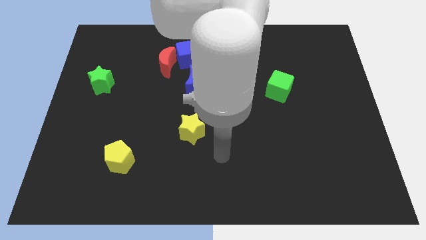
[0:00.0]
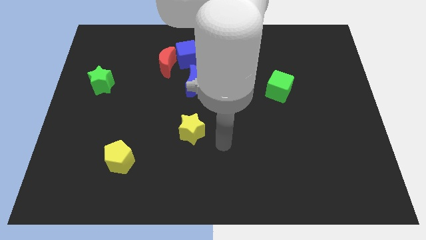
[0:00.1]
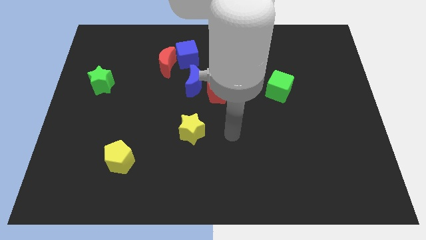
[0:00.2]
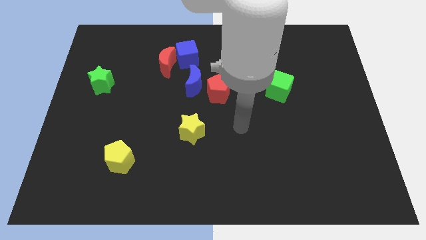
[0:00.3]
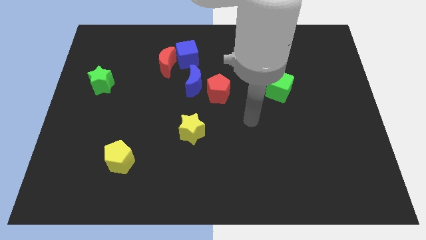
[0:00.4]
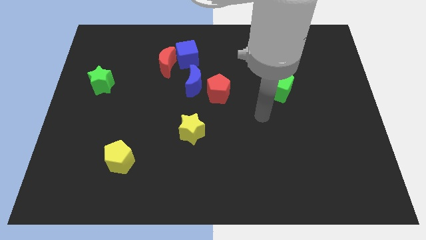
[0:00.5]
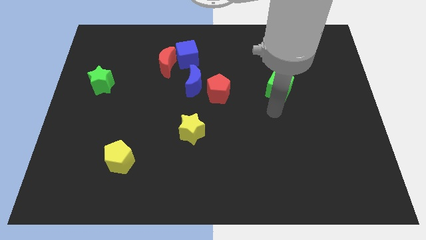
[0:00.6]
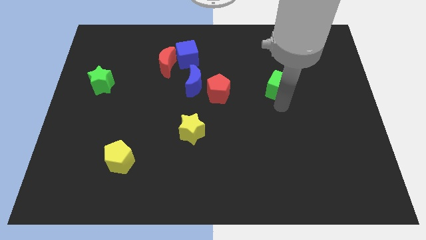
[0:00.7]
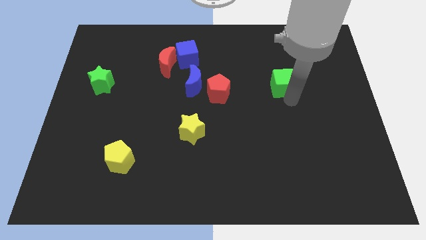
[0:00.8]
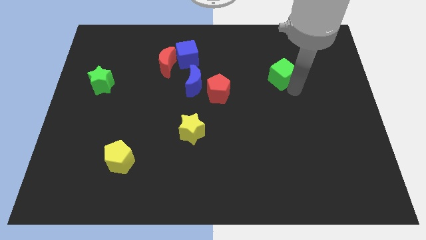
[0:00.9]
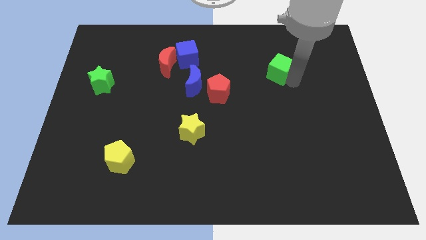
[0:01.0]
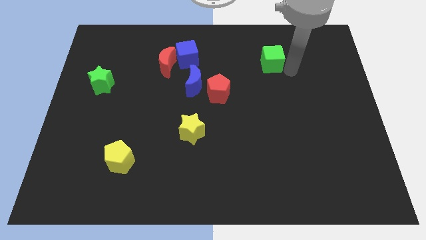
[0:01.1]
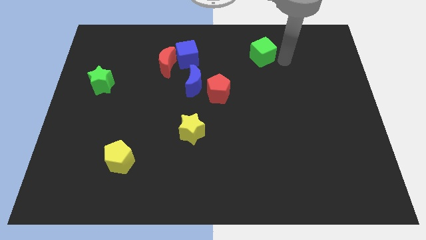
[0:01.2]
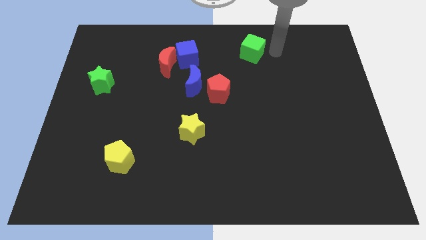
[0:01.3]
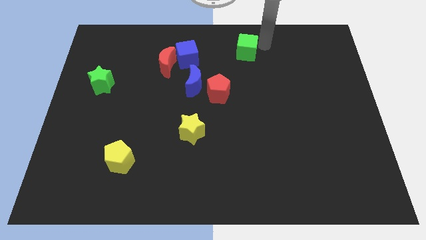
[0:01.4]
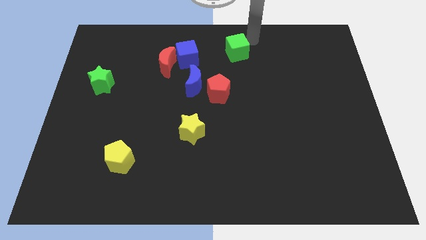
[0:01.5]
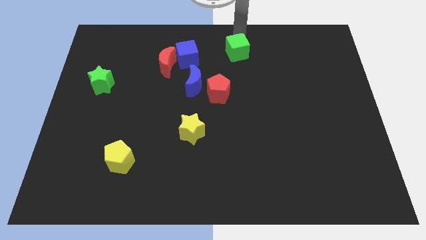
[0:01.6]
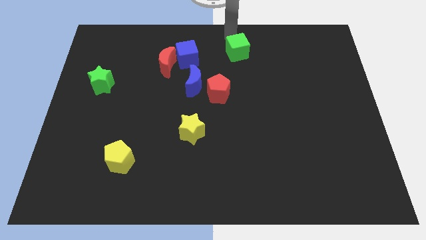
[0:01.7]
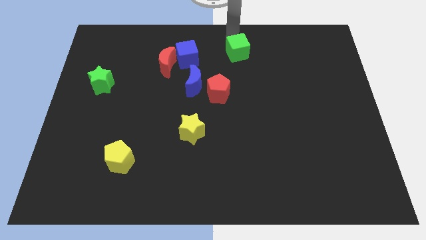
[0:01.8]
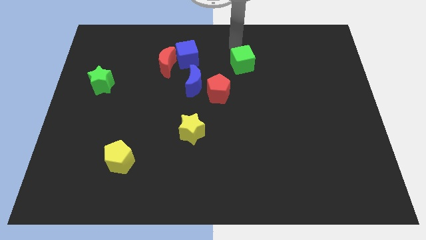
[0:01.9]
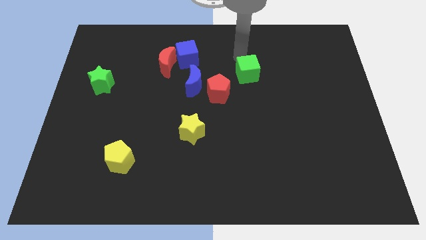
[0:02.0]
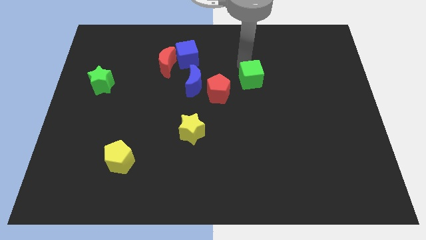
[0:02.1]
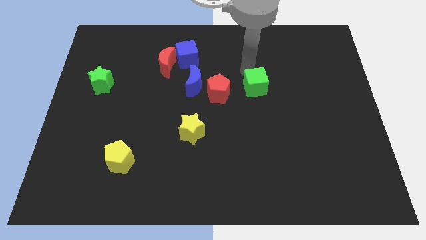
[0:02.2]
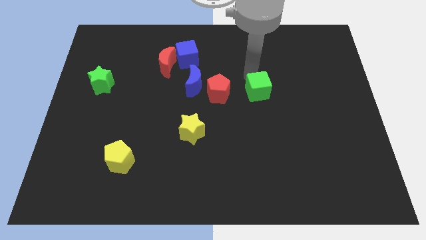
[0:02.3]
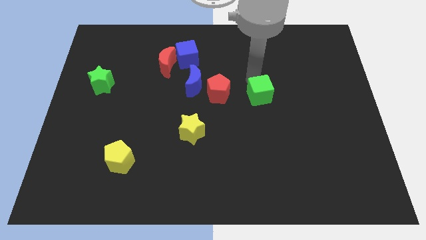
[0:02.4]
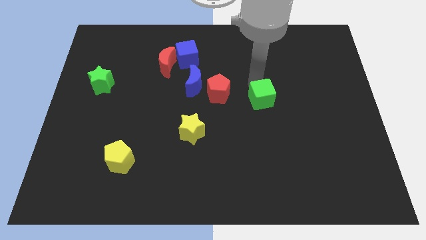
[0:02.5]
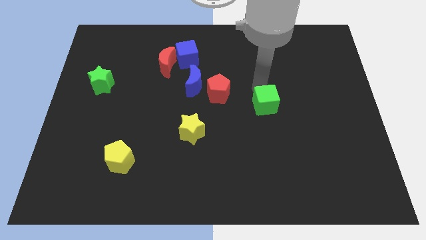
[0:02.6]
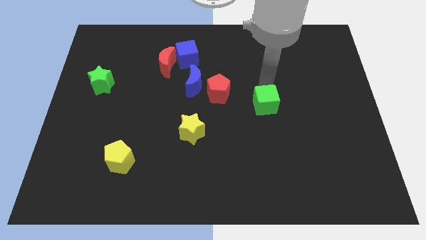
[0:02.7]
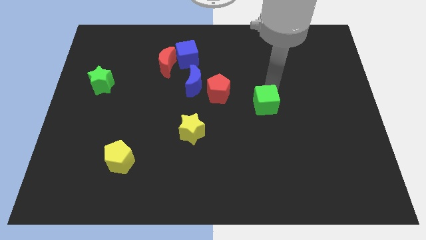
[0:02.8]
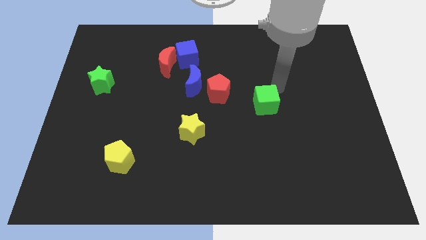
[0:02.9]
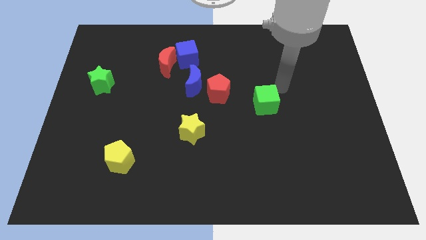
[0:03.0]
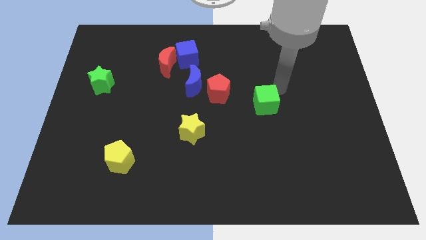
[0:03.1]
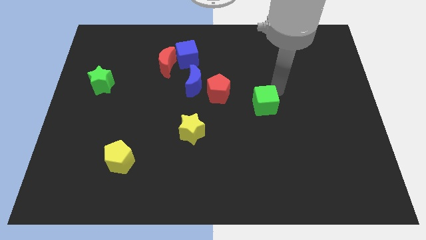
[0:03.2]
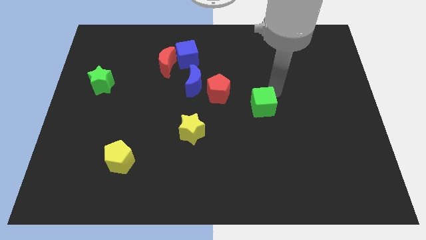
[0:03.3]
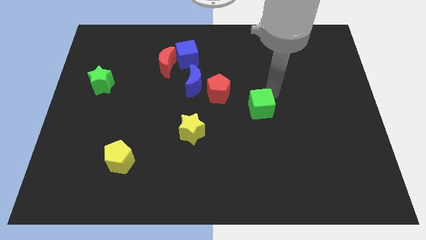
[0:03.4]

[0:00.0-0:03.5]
push the green cube down and left a little

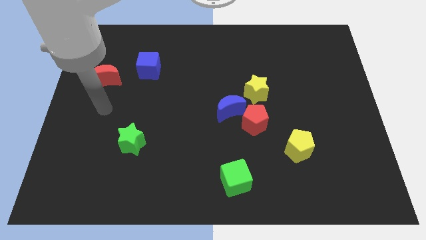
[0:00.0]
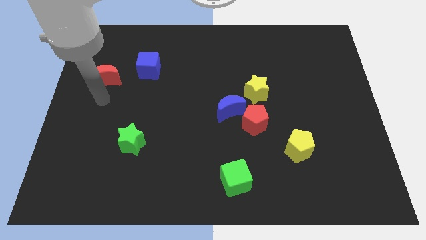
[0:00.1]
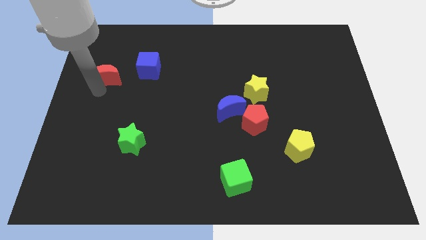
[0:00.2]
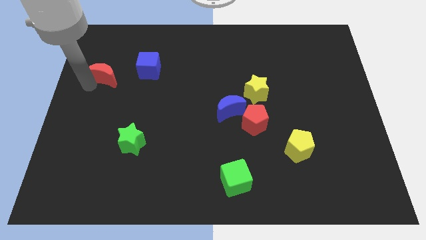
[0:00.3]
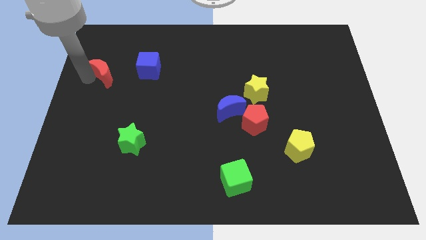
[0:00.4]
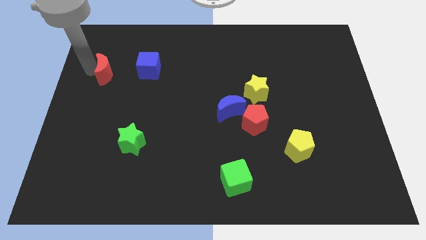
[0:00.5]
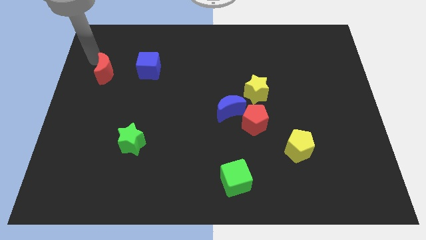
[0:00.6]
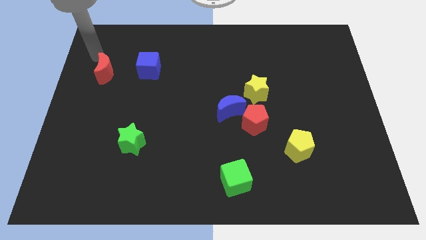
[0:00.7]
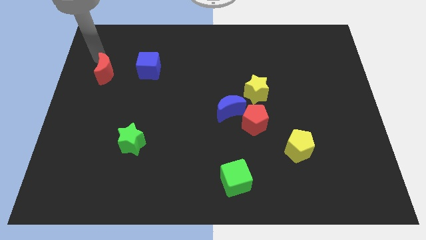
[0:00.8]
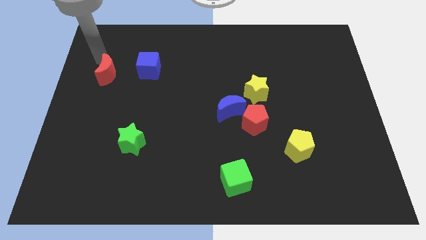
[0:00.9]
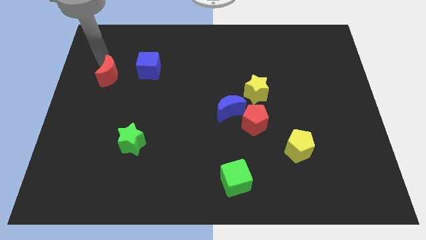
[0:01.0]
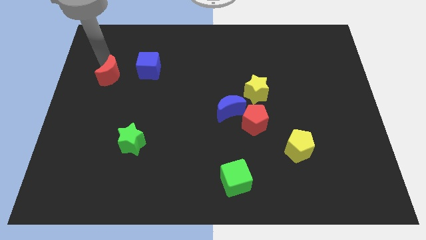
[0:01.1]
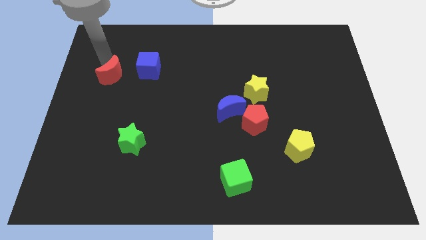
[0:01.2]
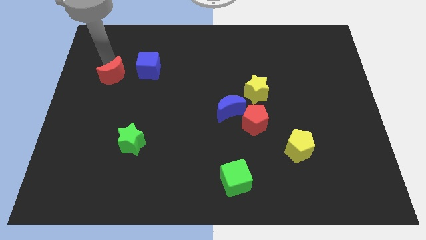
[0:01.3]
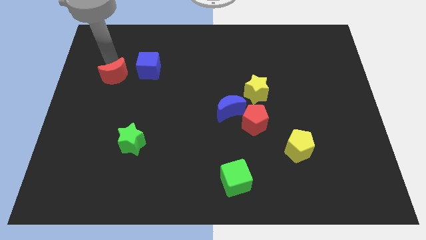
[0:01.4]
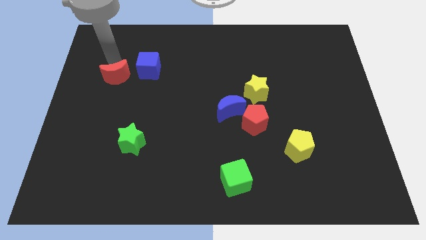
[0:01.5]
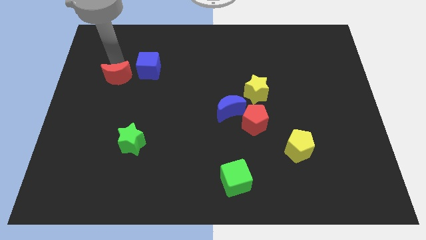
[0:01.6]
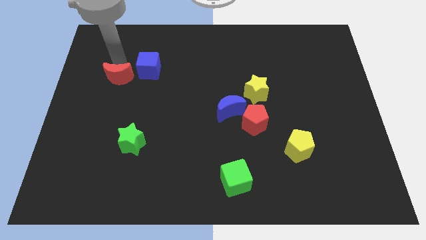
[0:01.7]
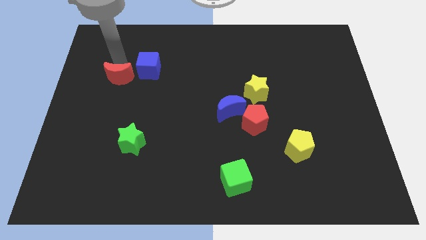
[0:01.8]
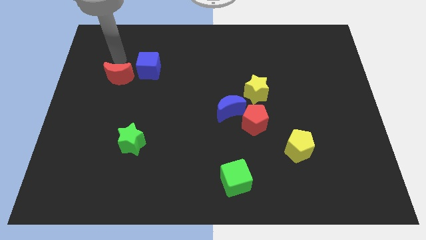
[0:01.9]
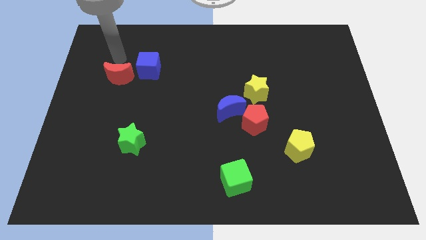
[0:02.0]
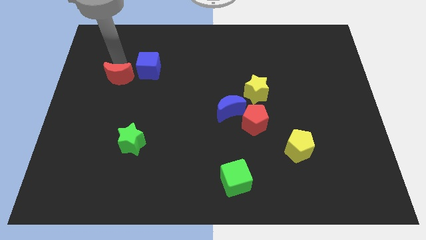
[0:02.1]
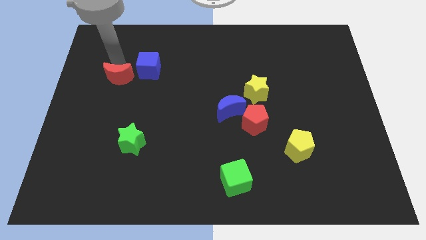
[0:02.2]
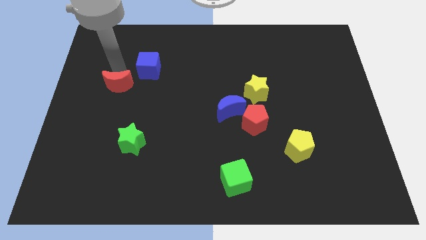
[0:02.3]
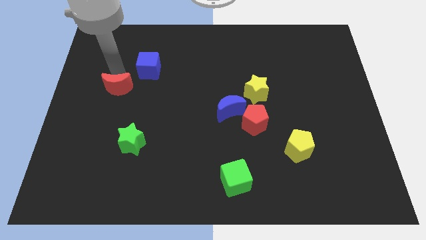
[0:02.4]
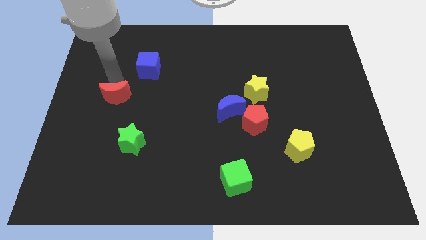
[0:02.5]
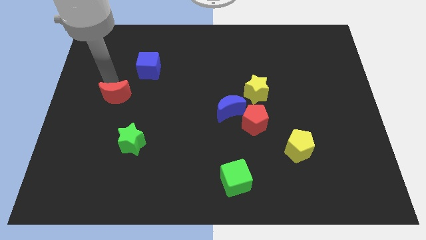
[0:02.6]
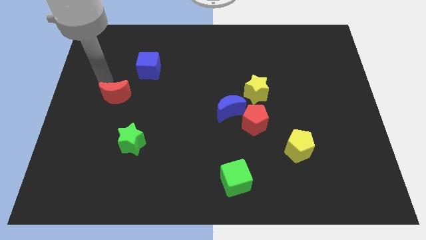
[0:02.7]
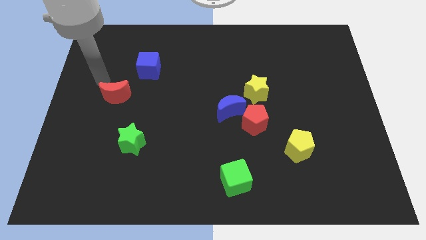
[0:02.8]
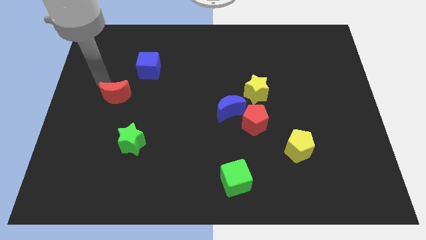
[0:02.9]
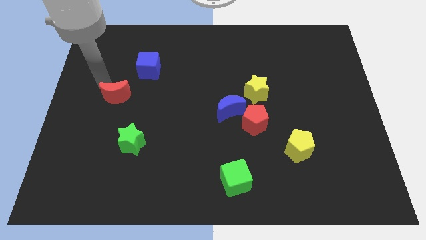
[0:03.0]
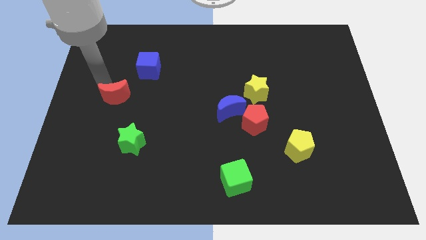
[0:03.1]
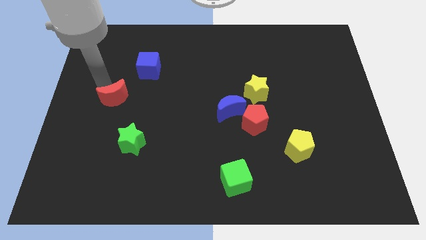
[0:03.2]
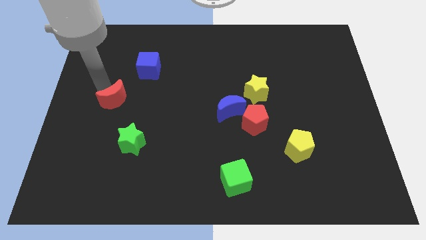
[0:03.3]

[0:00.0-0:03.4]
move the red moon down and to the right a bit

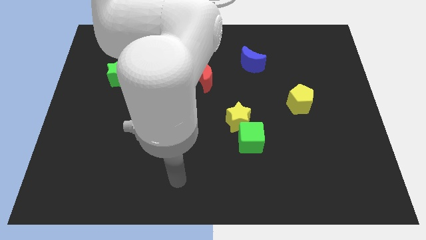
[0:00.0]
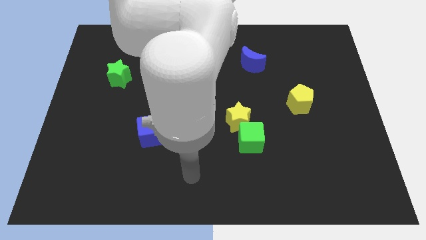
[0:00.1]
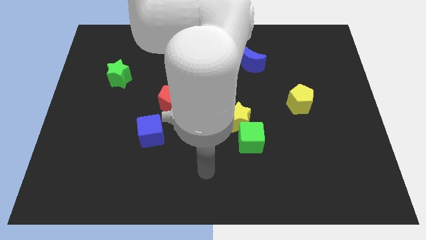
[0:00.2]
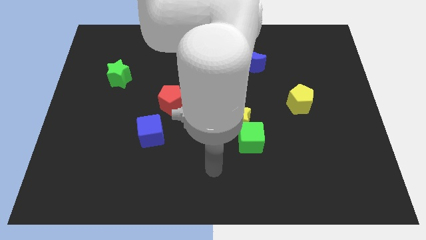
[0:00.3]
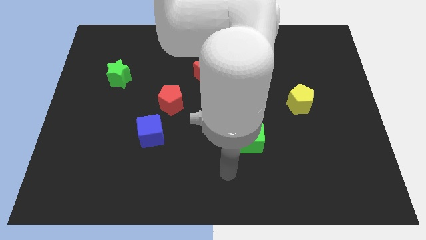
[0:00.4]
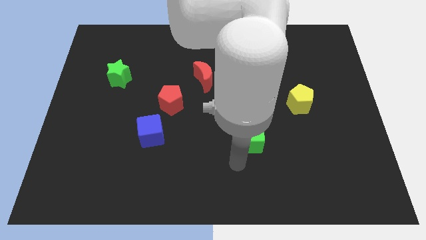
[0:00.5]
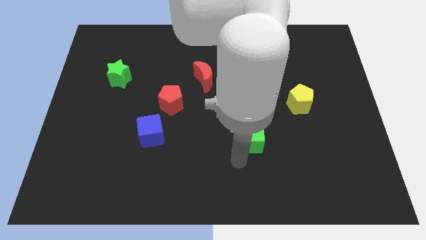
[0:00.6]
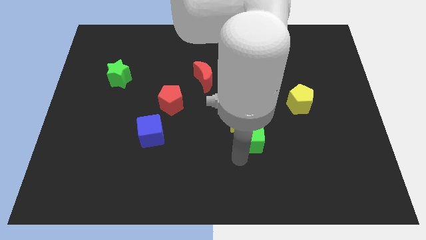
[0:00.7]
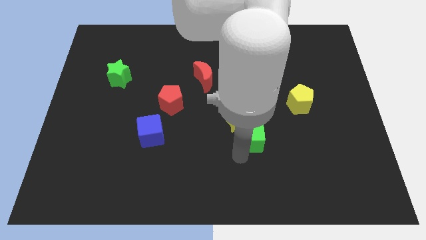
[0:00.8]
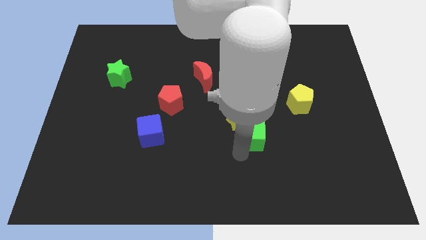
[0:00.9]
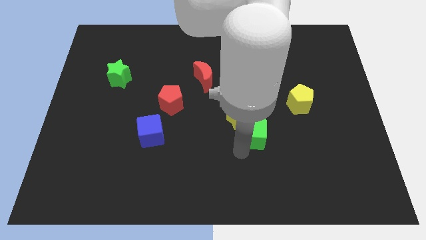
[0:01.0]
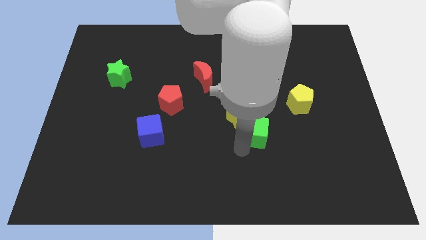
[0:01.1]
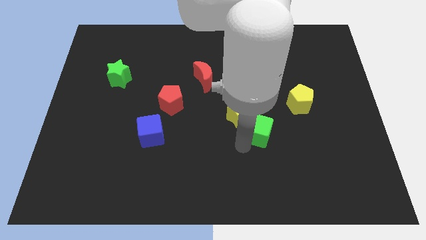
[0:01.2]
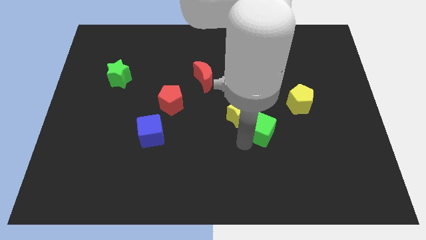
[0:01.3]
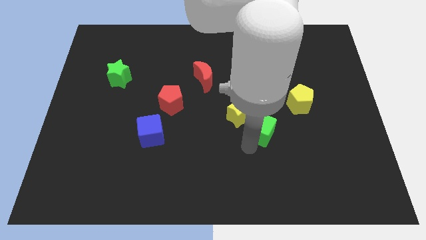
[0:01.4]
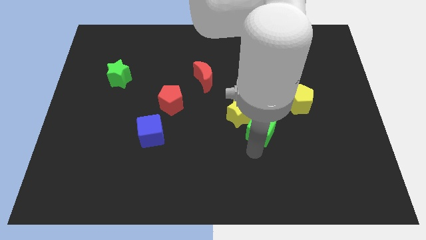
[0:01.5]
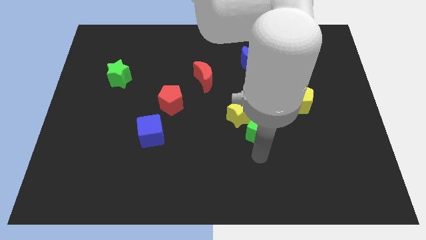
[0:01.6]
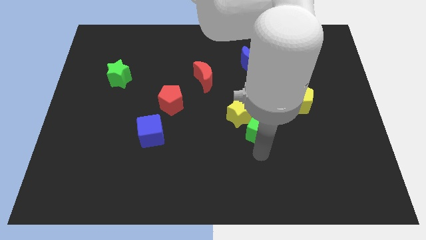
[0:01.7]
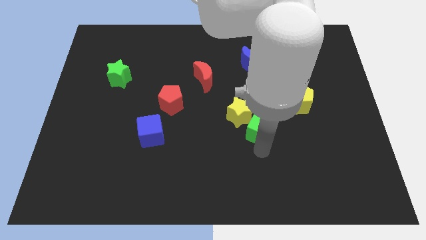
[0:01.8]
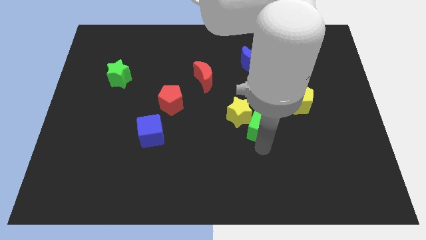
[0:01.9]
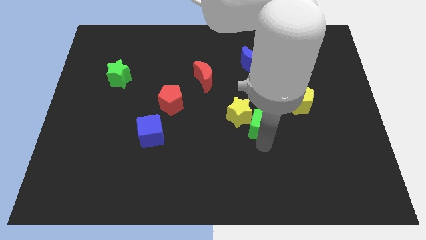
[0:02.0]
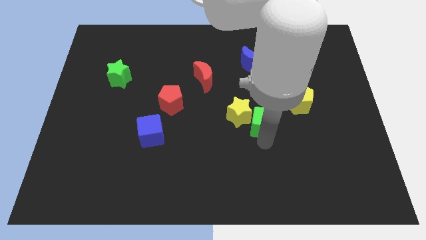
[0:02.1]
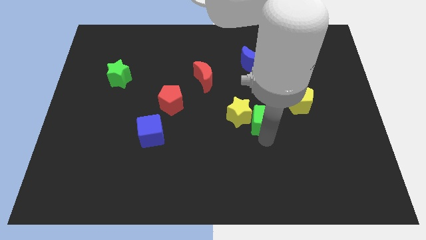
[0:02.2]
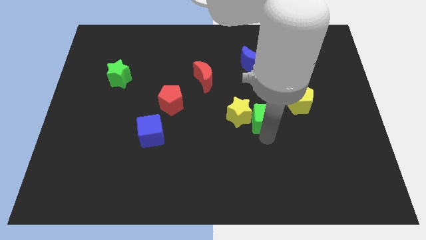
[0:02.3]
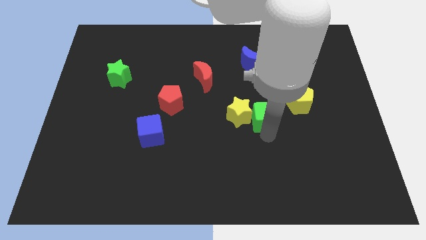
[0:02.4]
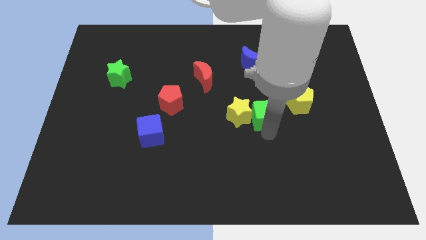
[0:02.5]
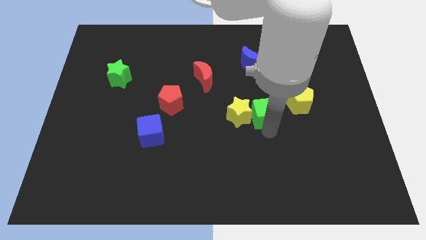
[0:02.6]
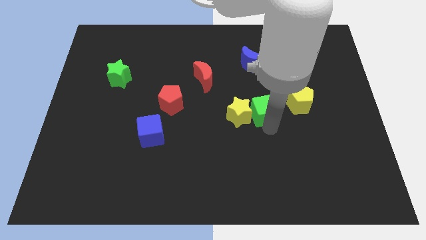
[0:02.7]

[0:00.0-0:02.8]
slide the green cube upwards somewhat
